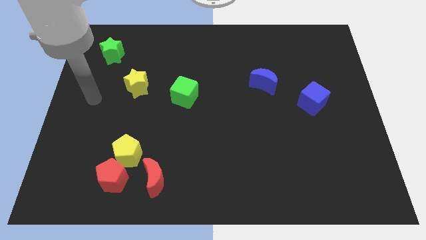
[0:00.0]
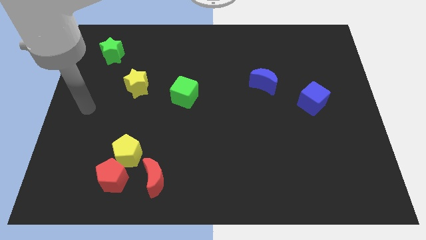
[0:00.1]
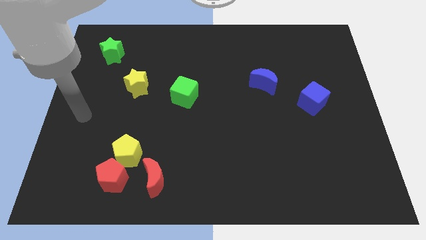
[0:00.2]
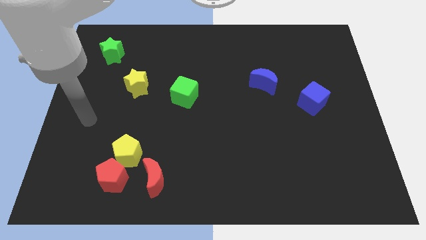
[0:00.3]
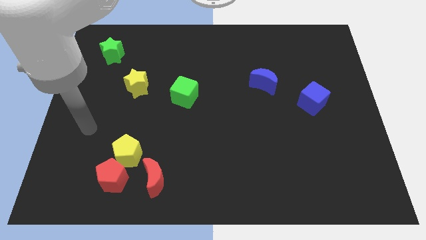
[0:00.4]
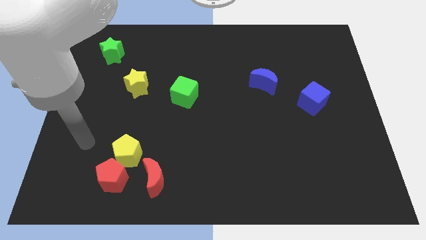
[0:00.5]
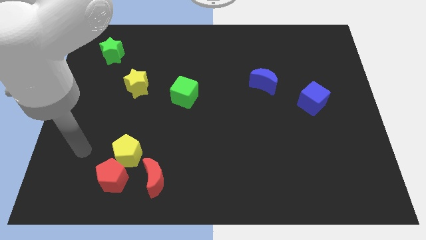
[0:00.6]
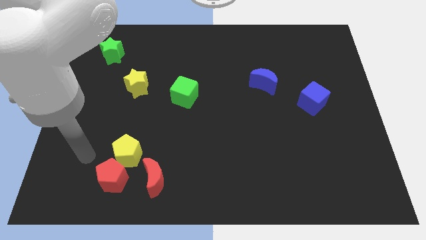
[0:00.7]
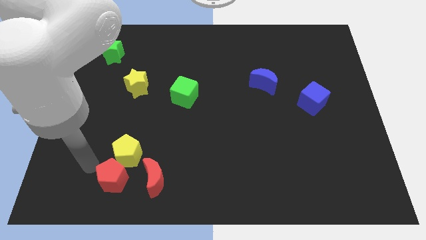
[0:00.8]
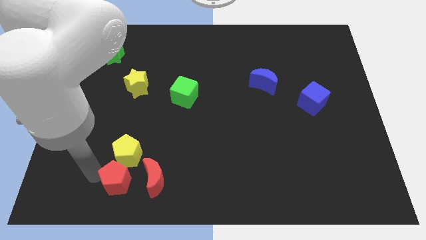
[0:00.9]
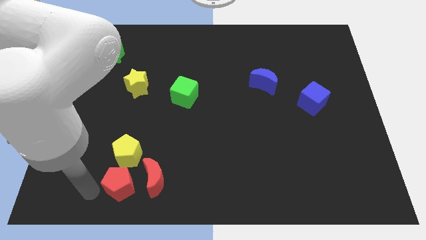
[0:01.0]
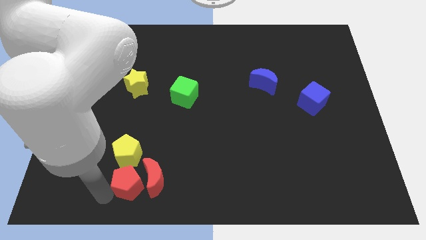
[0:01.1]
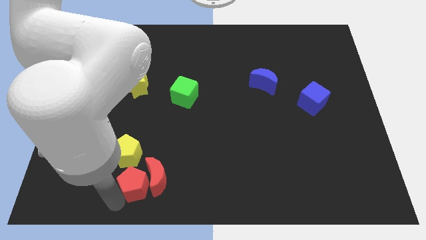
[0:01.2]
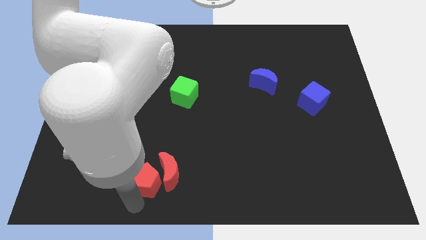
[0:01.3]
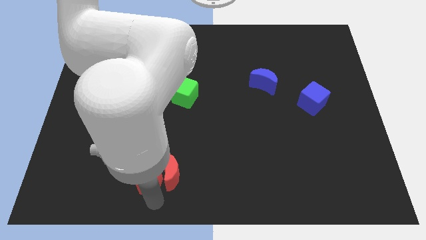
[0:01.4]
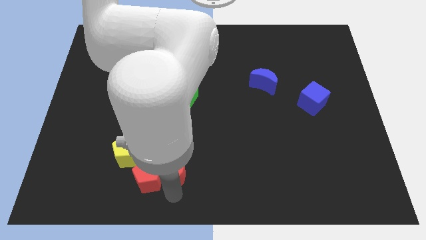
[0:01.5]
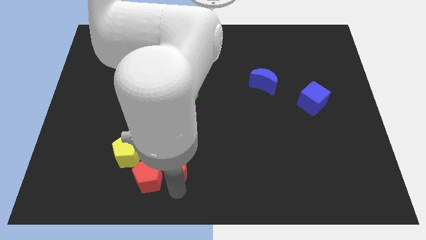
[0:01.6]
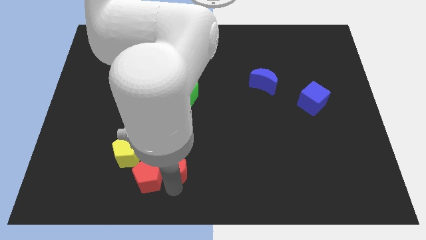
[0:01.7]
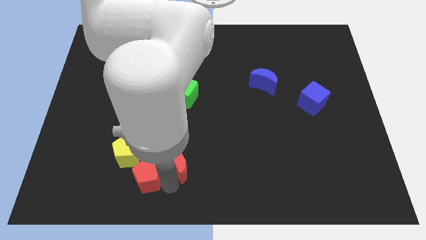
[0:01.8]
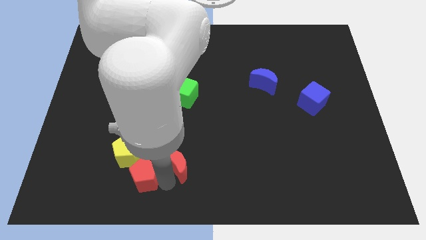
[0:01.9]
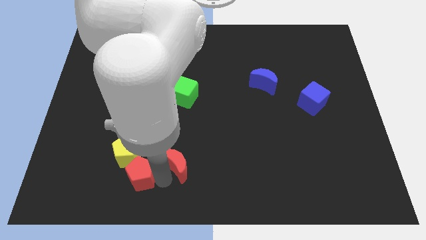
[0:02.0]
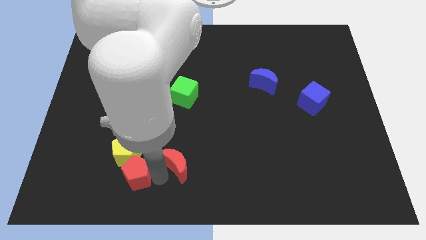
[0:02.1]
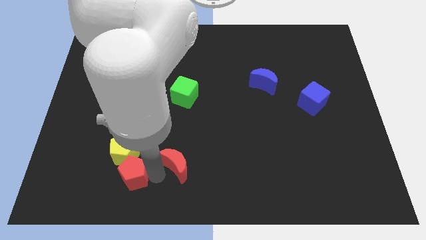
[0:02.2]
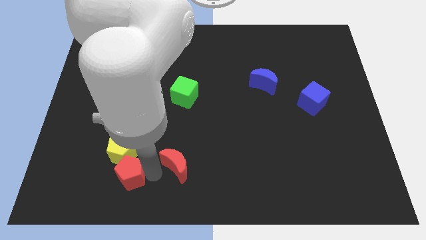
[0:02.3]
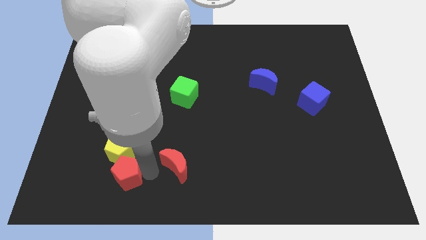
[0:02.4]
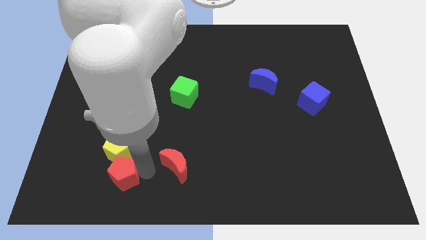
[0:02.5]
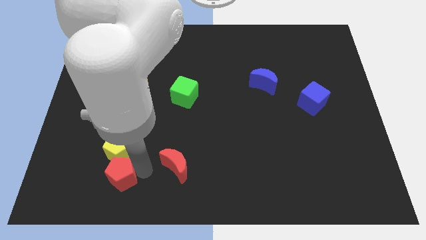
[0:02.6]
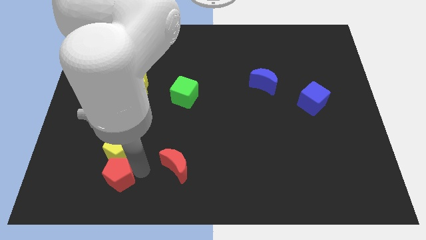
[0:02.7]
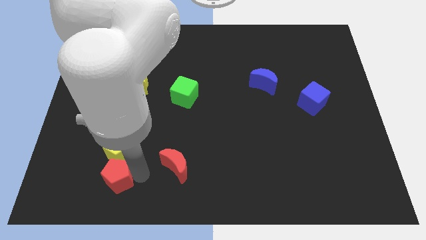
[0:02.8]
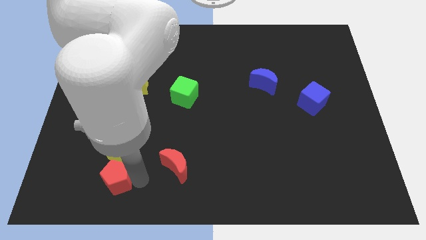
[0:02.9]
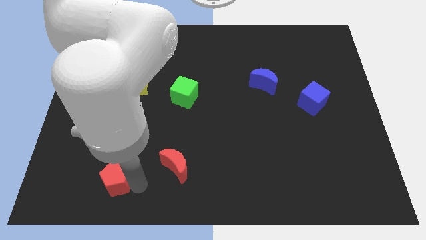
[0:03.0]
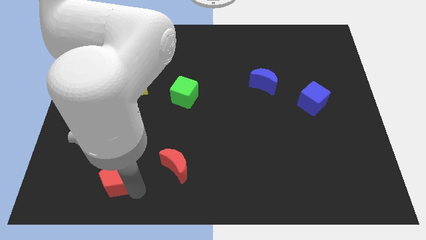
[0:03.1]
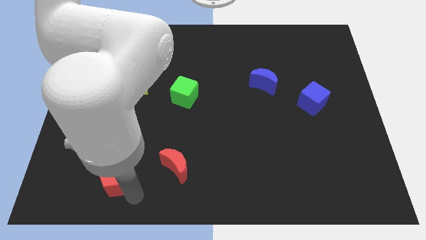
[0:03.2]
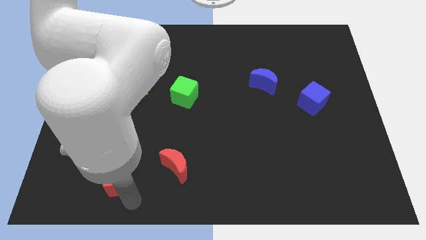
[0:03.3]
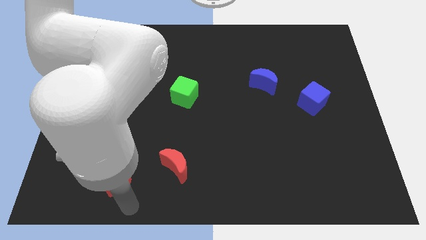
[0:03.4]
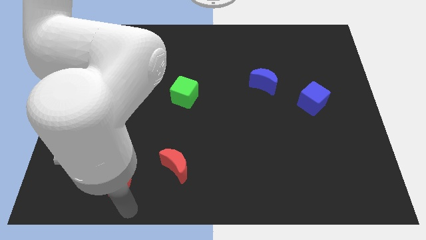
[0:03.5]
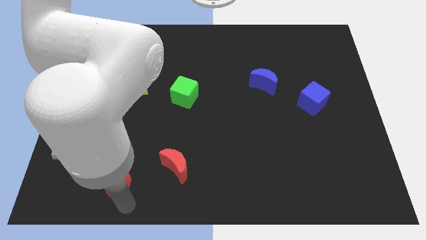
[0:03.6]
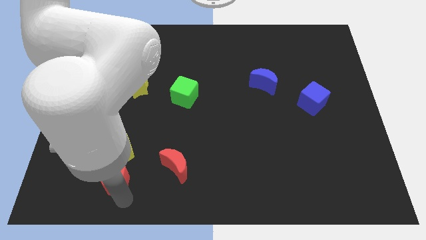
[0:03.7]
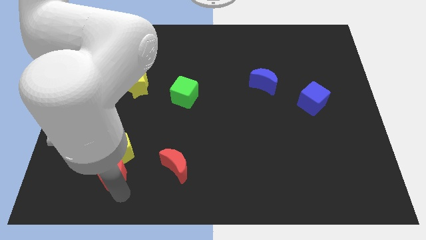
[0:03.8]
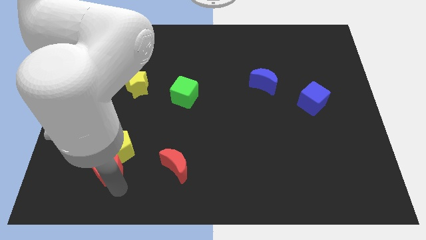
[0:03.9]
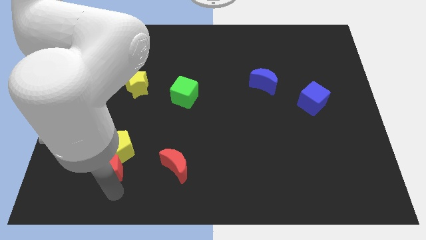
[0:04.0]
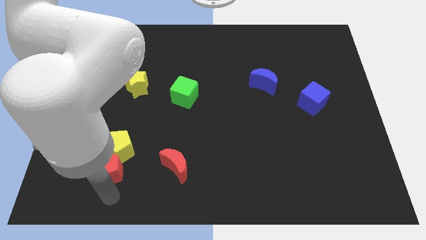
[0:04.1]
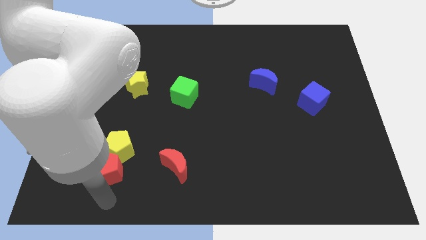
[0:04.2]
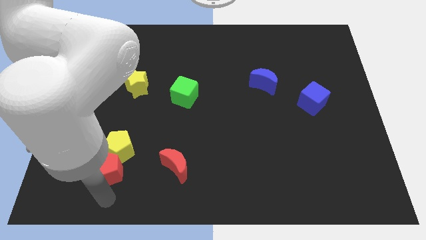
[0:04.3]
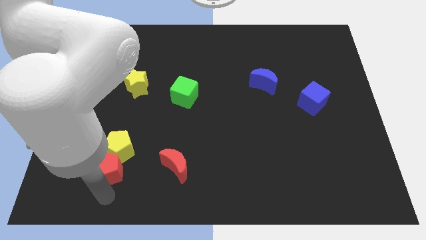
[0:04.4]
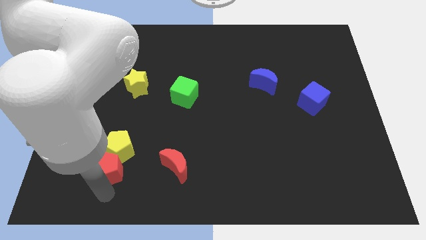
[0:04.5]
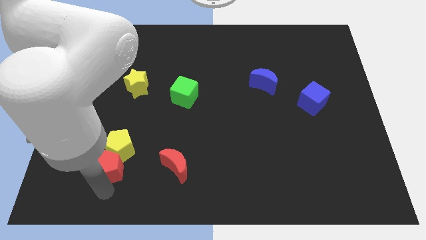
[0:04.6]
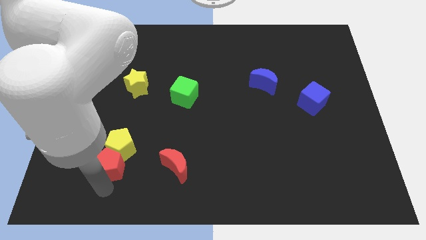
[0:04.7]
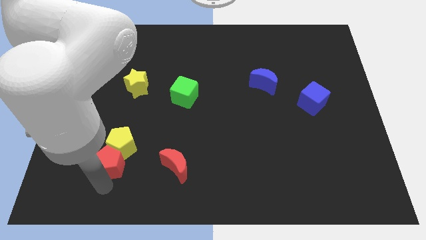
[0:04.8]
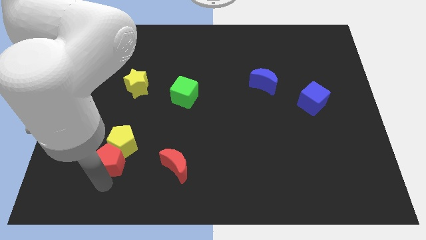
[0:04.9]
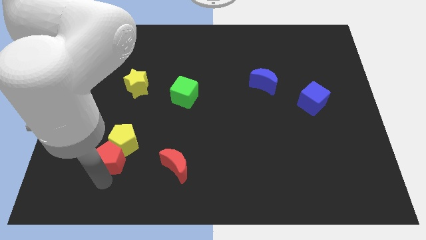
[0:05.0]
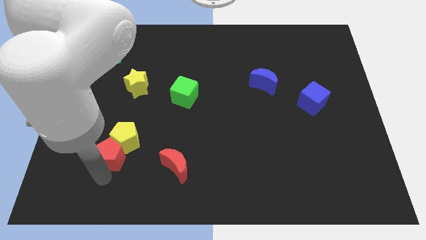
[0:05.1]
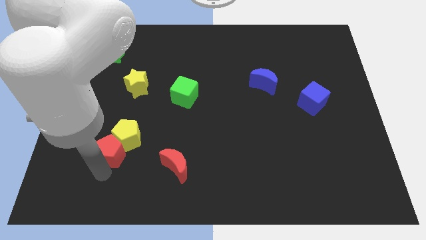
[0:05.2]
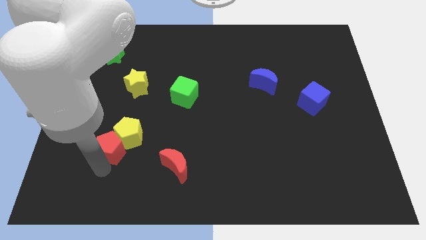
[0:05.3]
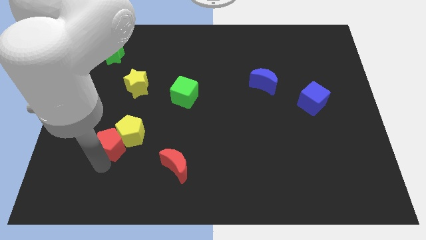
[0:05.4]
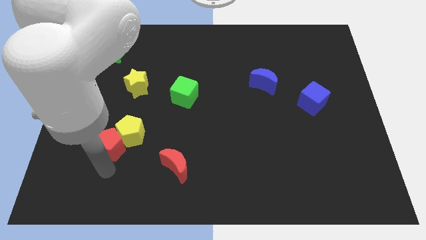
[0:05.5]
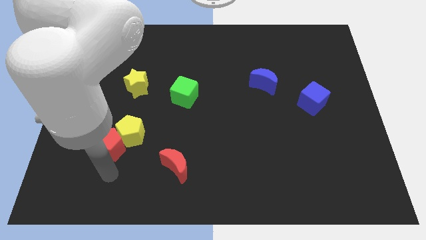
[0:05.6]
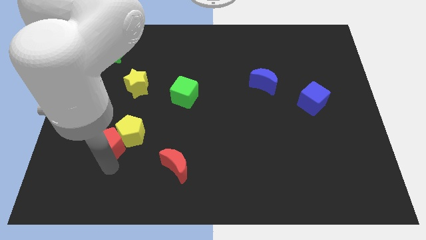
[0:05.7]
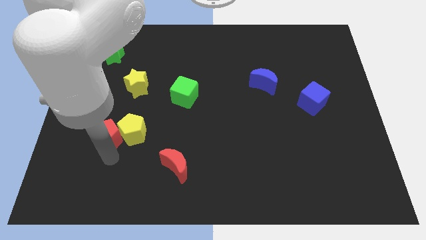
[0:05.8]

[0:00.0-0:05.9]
slide the red pentagon to the top left side of the yellow pentagon

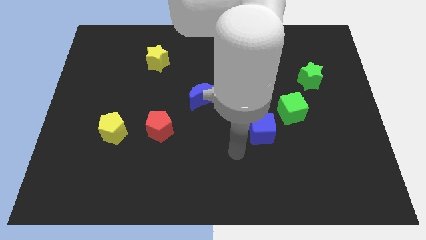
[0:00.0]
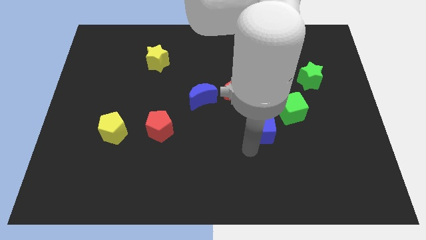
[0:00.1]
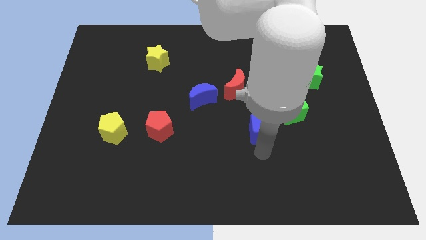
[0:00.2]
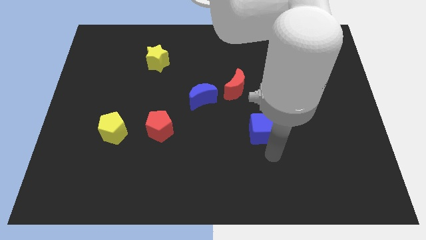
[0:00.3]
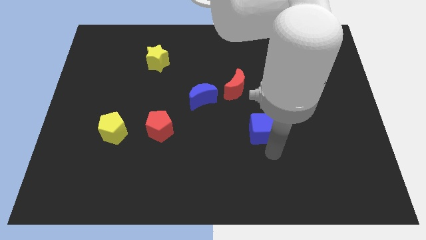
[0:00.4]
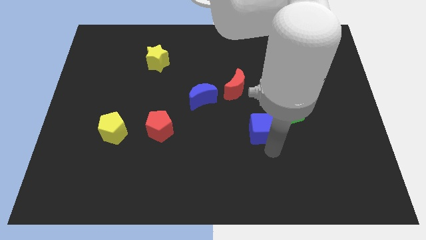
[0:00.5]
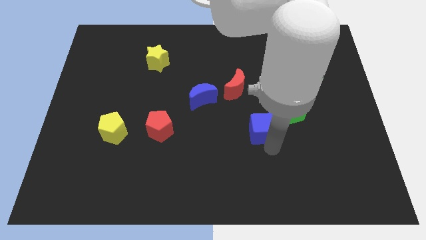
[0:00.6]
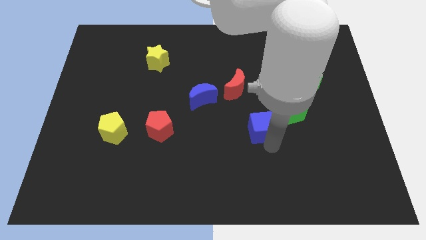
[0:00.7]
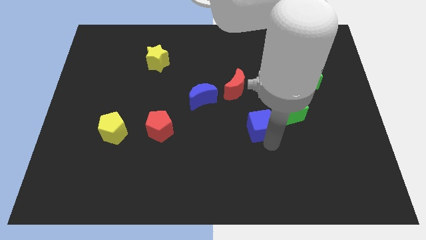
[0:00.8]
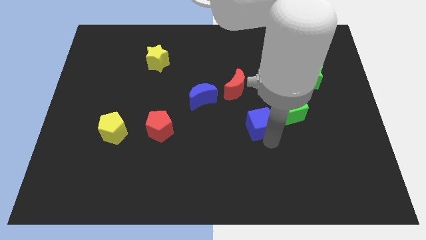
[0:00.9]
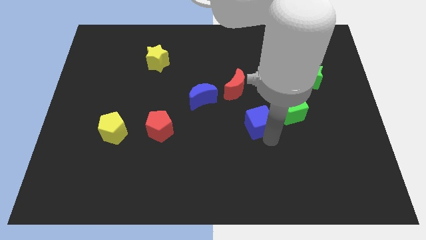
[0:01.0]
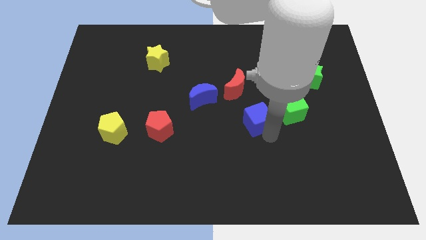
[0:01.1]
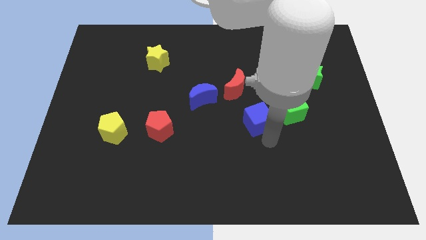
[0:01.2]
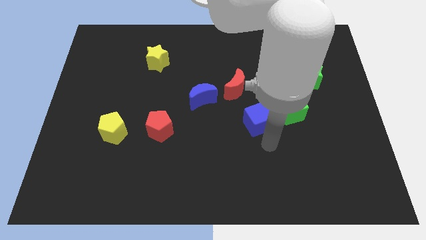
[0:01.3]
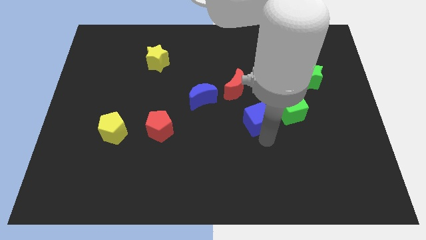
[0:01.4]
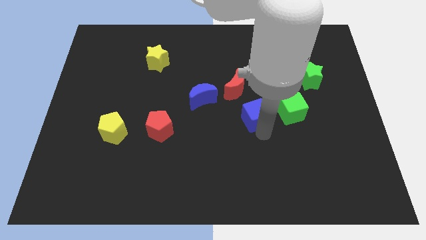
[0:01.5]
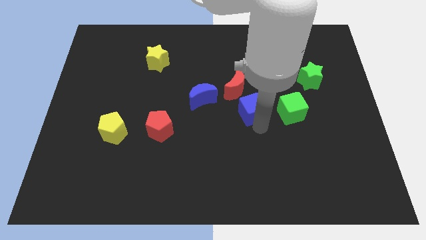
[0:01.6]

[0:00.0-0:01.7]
push the blue cube just right of the blue moon
